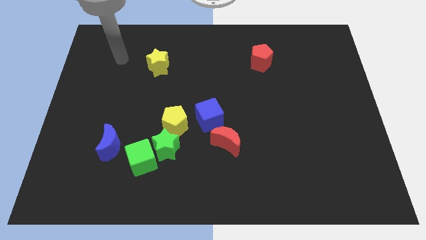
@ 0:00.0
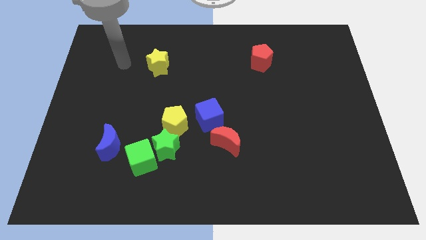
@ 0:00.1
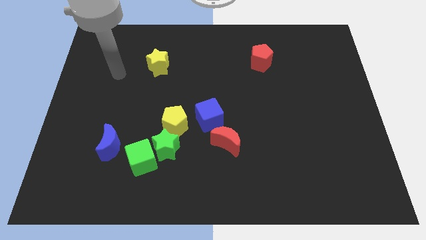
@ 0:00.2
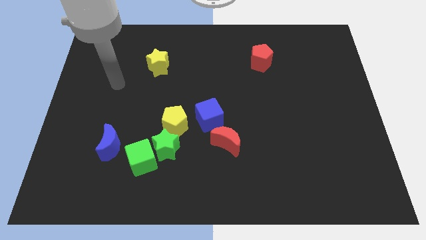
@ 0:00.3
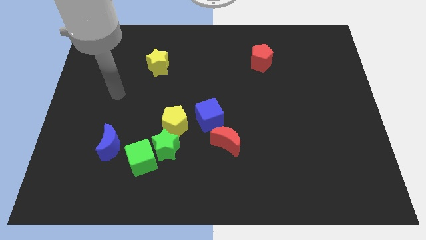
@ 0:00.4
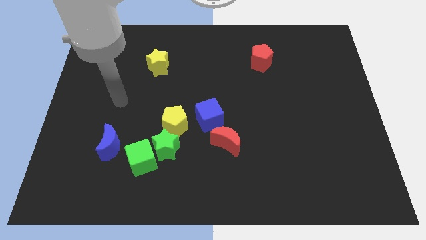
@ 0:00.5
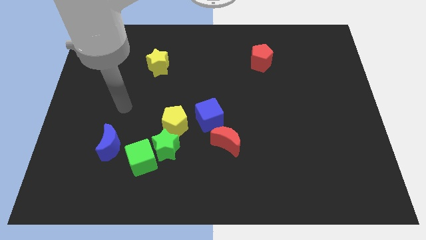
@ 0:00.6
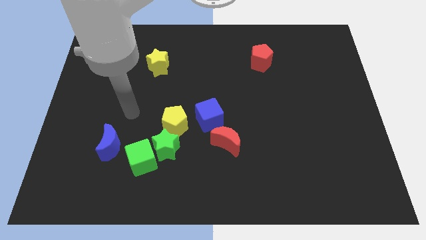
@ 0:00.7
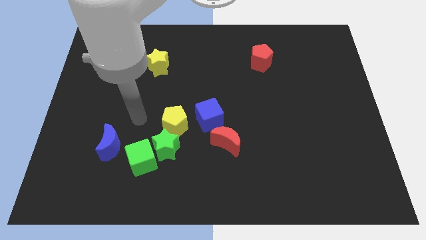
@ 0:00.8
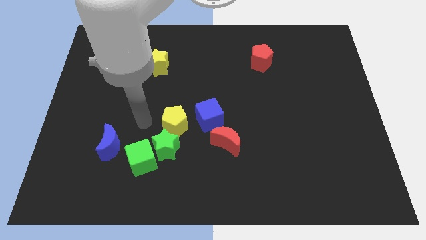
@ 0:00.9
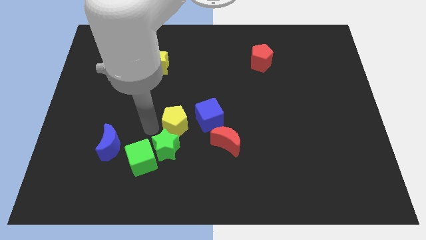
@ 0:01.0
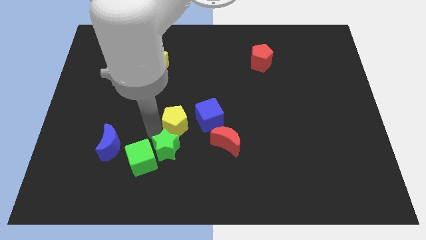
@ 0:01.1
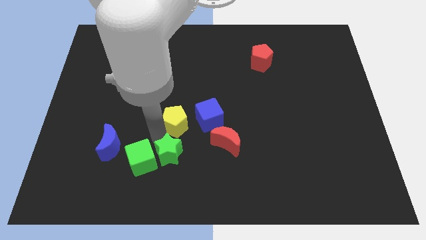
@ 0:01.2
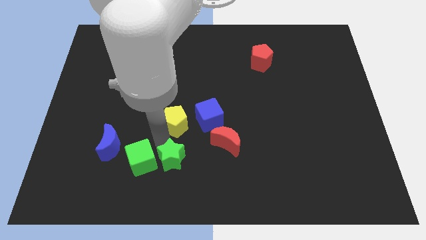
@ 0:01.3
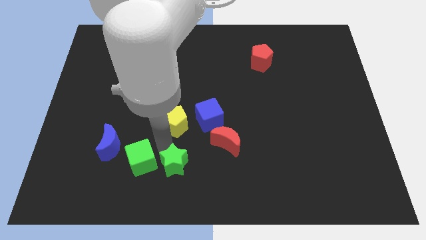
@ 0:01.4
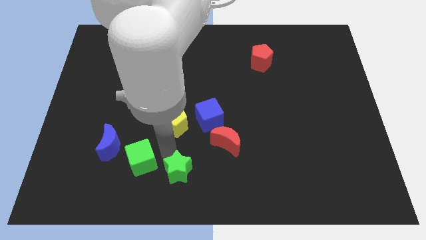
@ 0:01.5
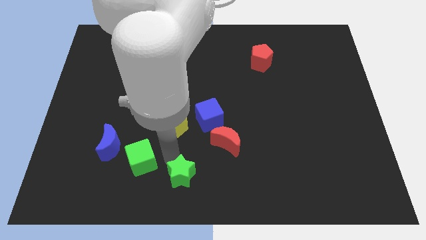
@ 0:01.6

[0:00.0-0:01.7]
separate the green star from the green cube and yellow pentagon

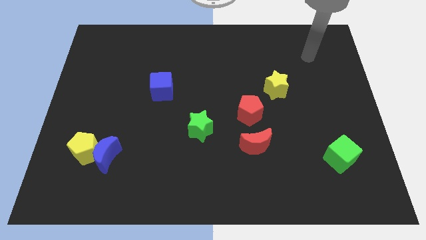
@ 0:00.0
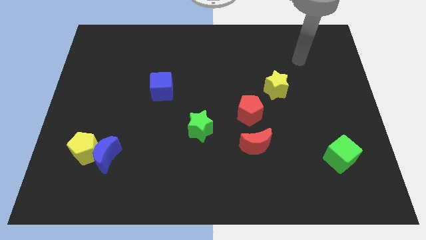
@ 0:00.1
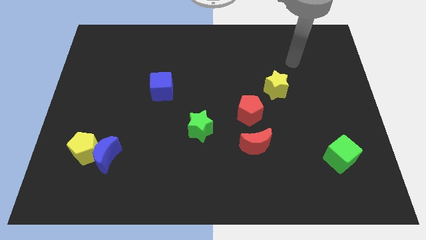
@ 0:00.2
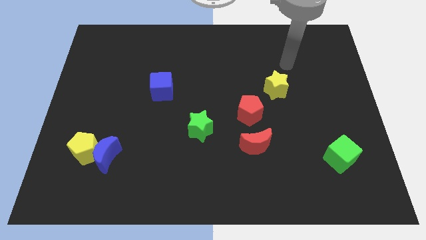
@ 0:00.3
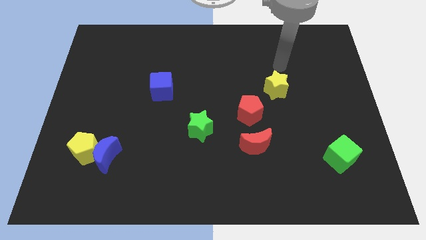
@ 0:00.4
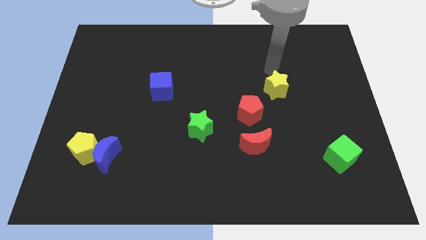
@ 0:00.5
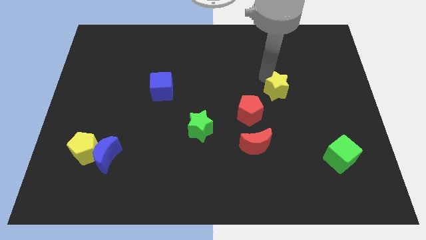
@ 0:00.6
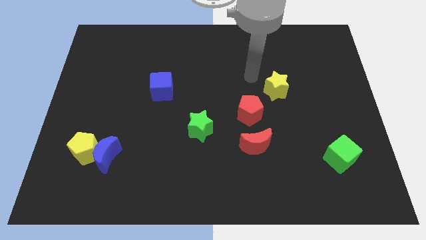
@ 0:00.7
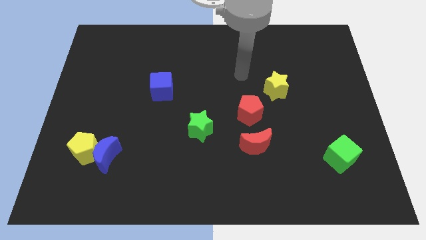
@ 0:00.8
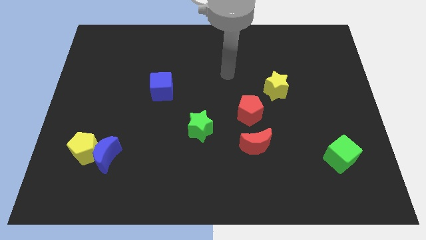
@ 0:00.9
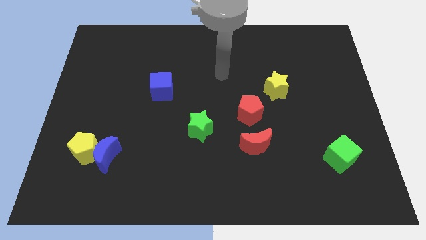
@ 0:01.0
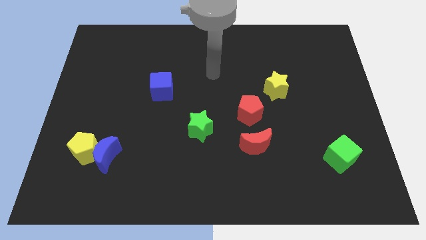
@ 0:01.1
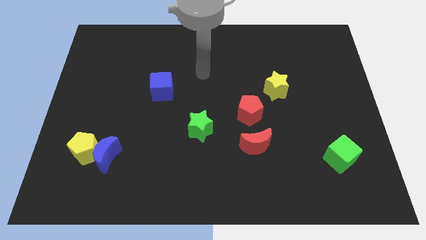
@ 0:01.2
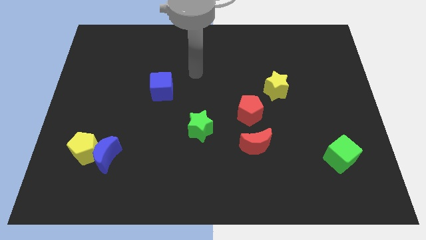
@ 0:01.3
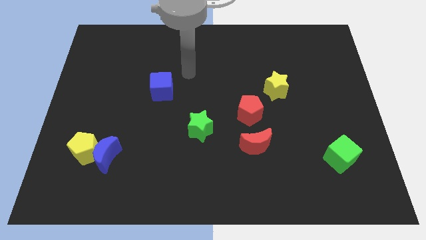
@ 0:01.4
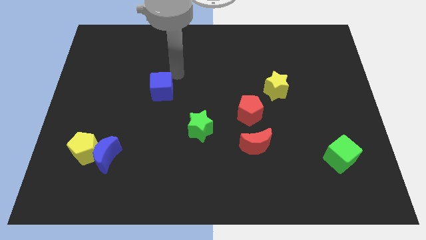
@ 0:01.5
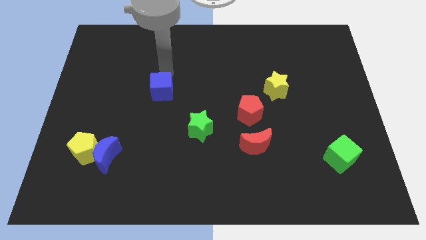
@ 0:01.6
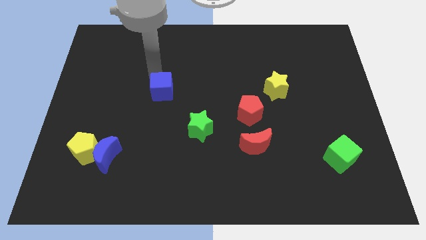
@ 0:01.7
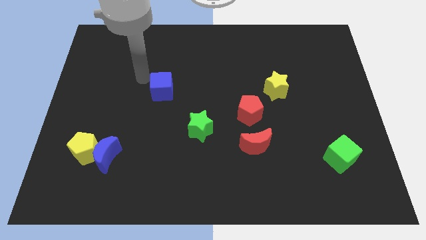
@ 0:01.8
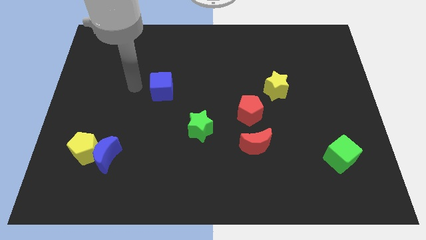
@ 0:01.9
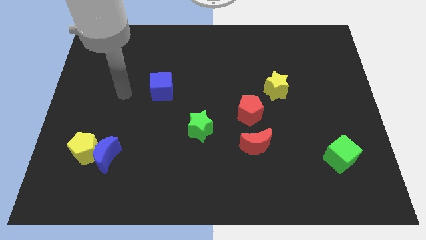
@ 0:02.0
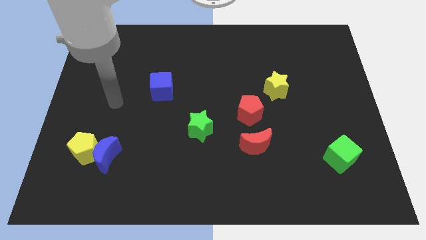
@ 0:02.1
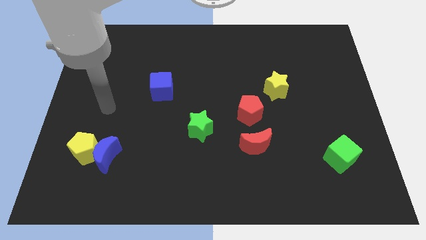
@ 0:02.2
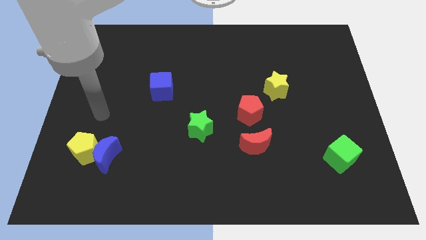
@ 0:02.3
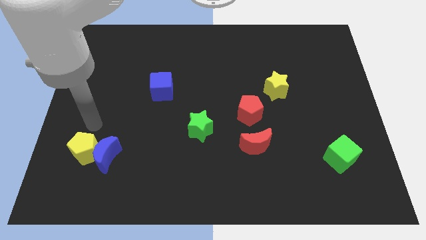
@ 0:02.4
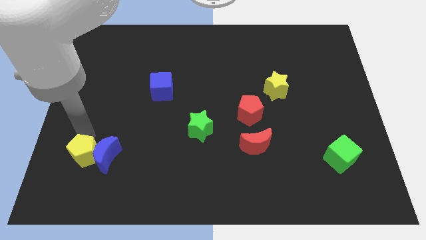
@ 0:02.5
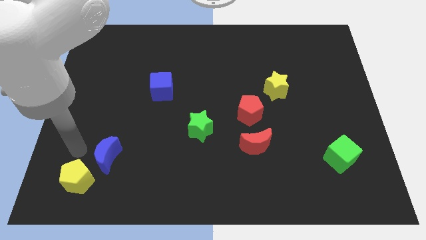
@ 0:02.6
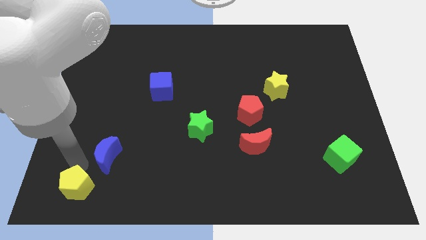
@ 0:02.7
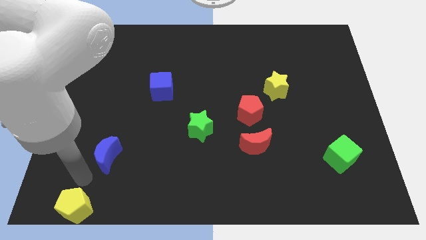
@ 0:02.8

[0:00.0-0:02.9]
pull the blue moon apart from the yellow pentagon

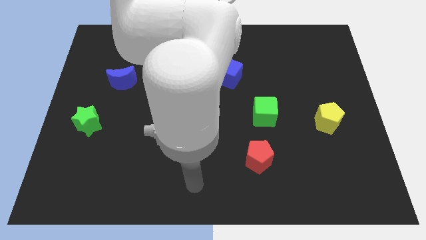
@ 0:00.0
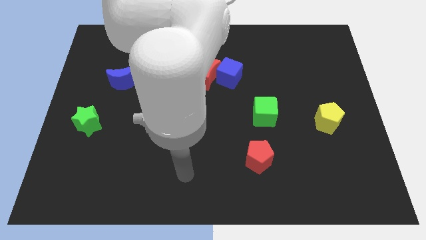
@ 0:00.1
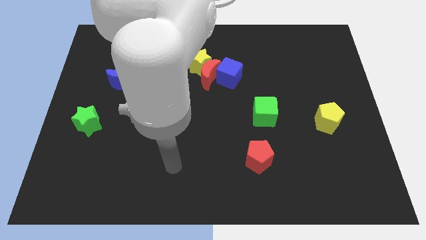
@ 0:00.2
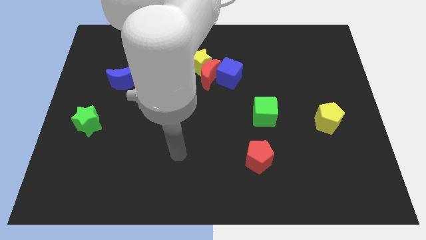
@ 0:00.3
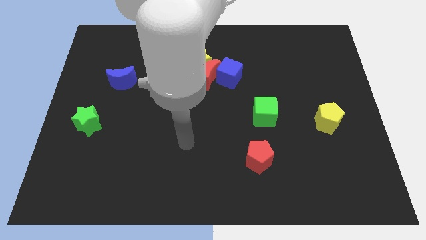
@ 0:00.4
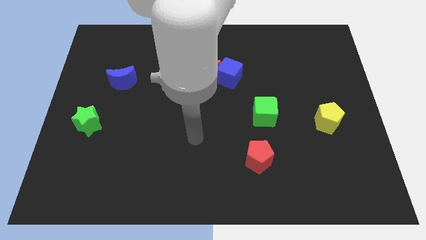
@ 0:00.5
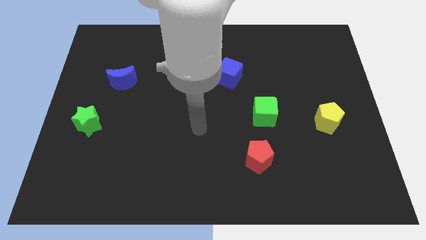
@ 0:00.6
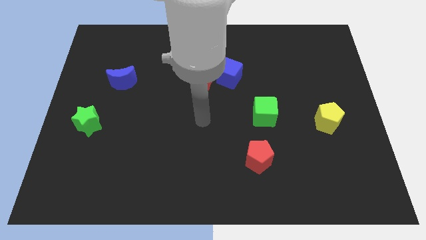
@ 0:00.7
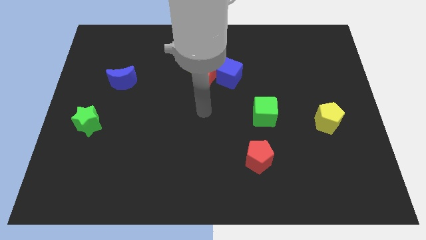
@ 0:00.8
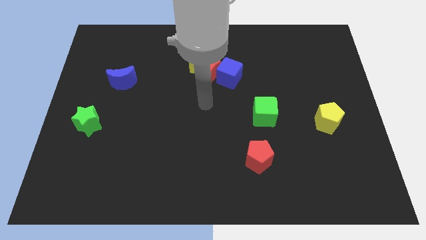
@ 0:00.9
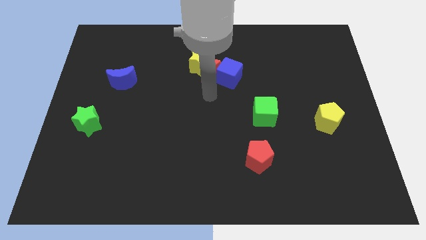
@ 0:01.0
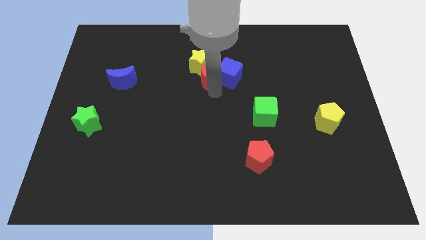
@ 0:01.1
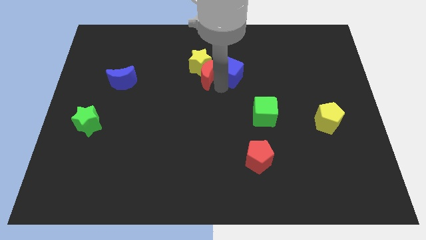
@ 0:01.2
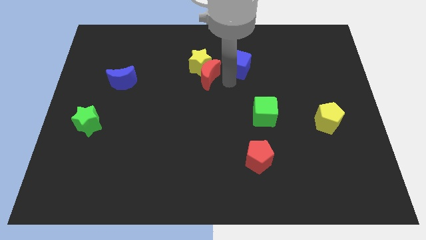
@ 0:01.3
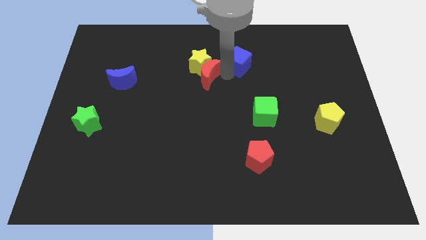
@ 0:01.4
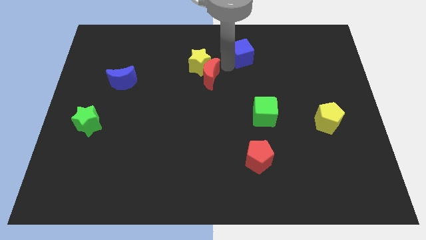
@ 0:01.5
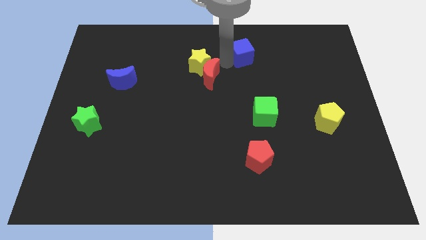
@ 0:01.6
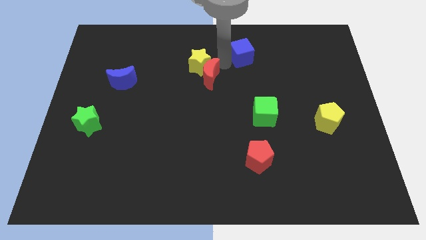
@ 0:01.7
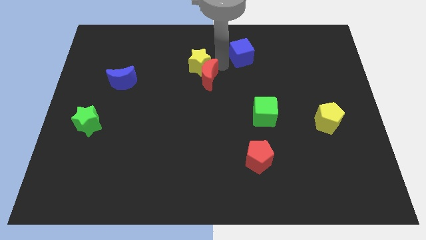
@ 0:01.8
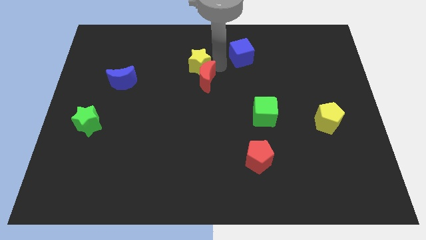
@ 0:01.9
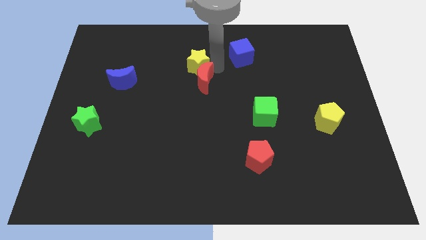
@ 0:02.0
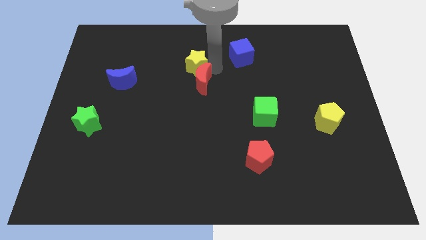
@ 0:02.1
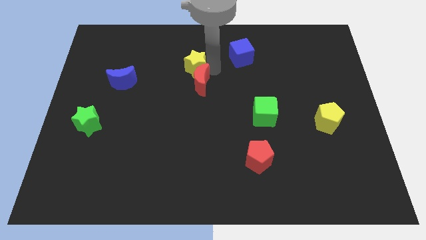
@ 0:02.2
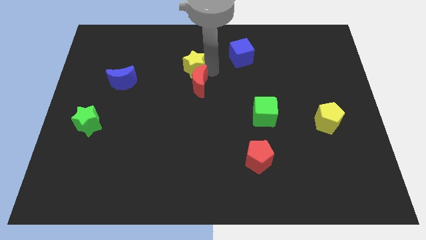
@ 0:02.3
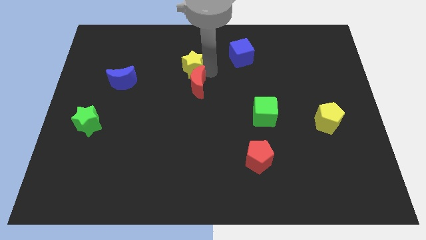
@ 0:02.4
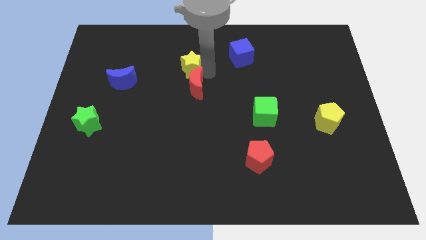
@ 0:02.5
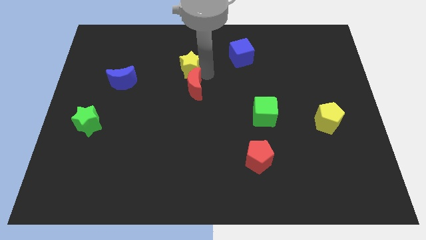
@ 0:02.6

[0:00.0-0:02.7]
move the red moon away from the yellow star and blue cube

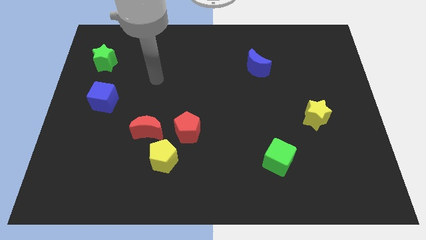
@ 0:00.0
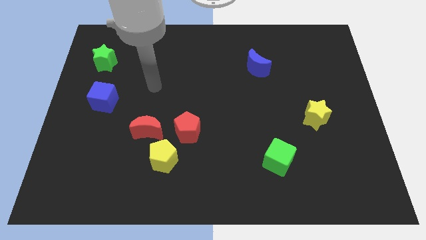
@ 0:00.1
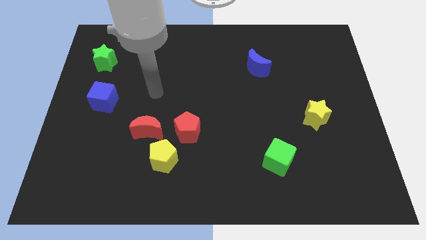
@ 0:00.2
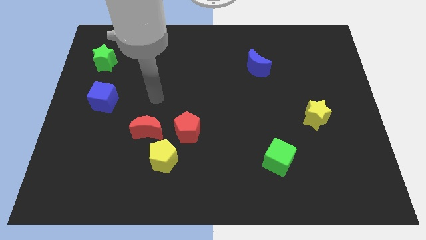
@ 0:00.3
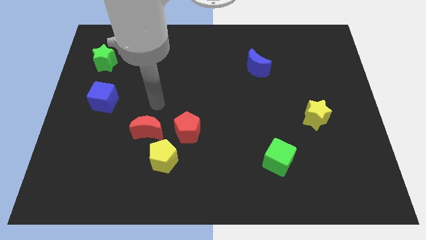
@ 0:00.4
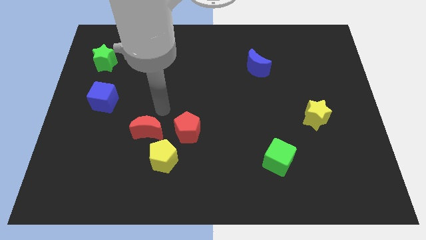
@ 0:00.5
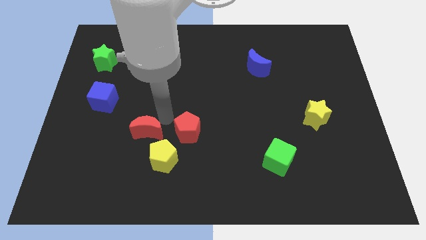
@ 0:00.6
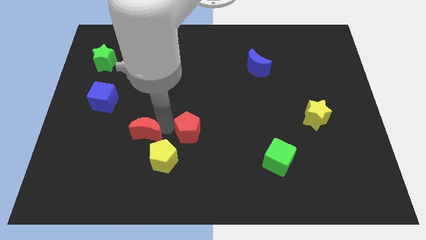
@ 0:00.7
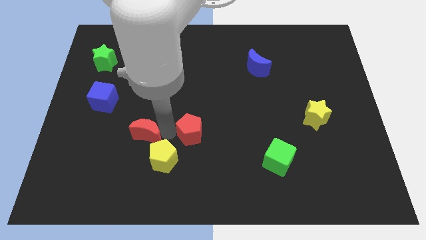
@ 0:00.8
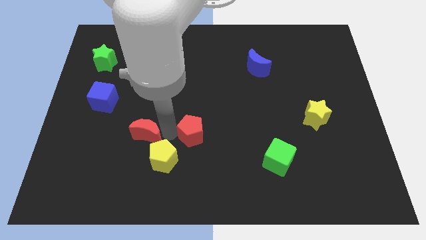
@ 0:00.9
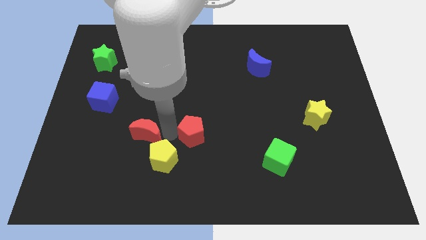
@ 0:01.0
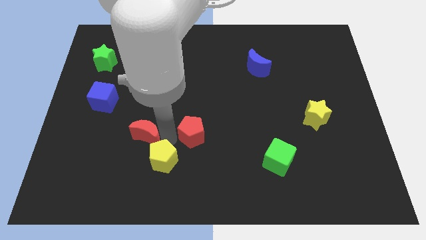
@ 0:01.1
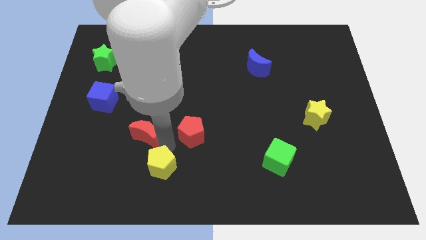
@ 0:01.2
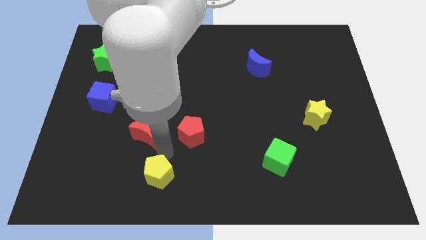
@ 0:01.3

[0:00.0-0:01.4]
separate the yellow pentagon from the red moon and red pentagon

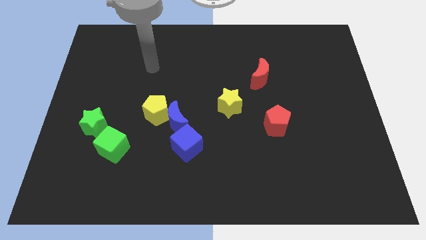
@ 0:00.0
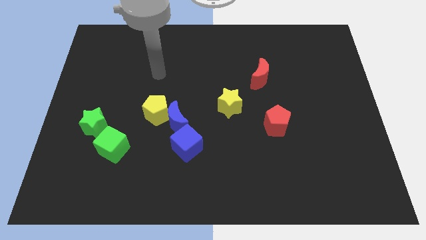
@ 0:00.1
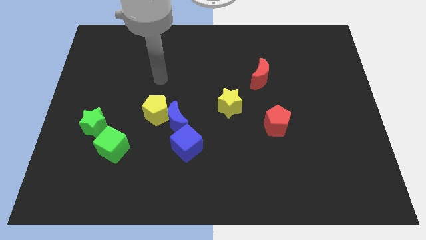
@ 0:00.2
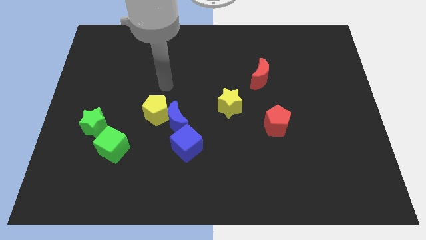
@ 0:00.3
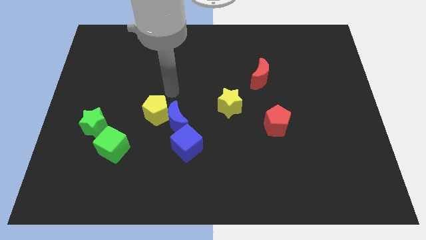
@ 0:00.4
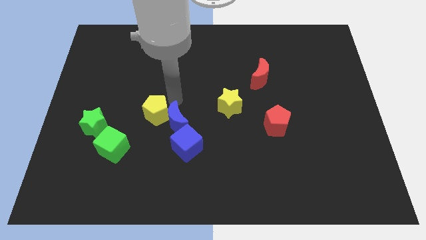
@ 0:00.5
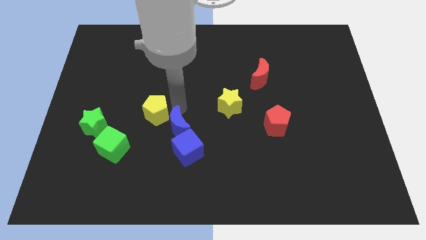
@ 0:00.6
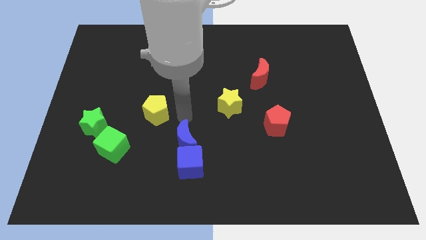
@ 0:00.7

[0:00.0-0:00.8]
move the yellow pentagon away from the blue moon
